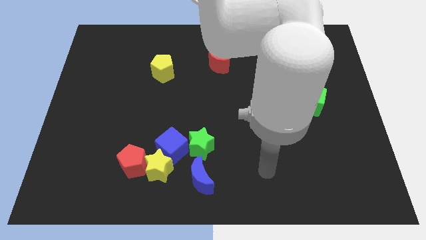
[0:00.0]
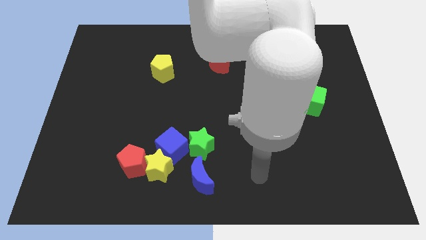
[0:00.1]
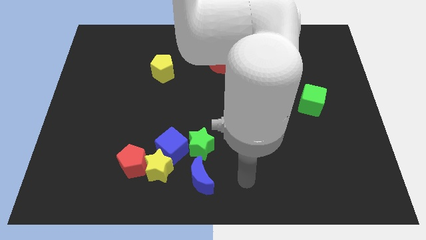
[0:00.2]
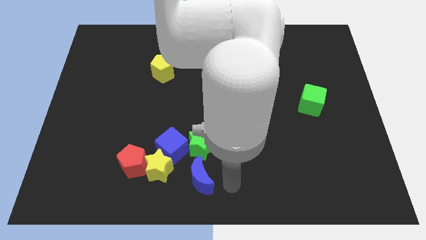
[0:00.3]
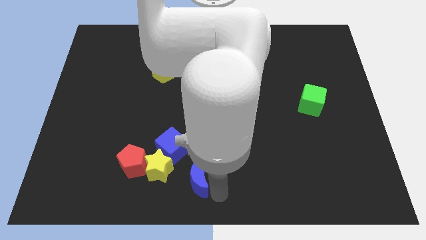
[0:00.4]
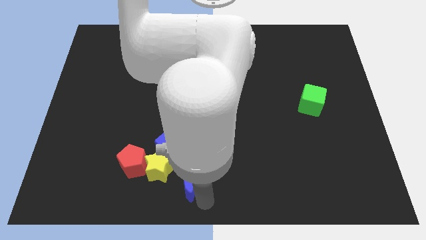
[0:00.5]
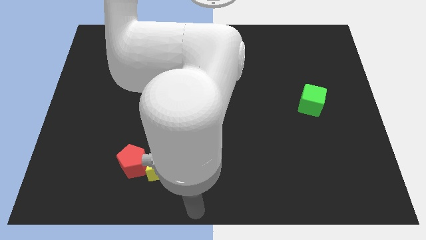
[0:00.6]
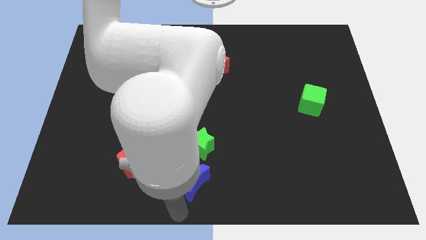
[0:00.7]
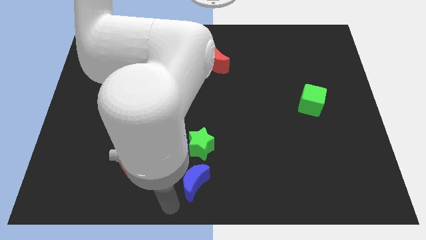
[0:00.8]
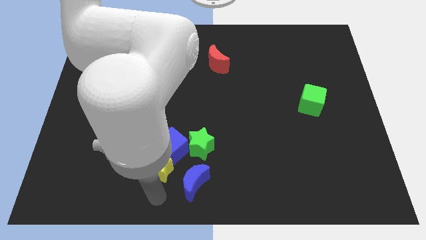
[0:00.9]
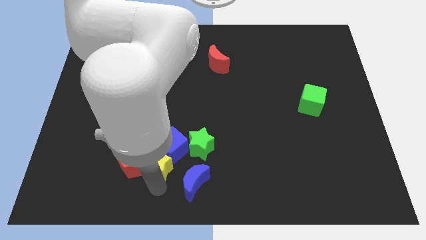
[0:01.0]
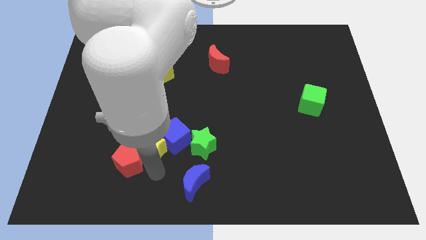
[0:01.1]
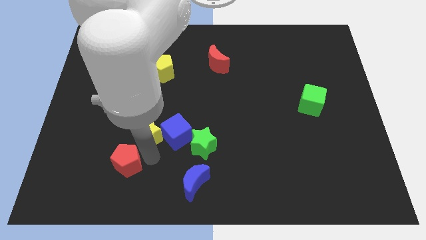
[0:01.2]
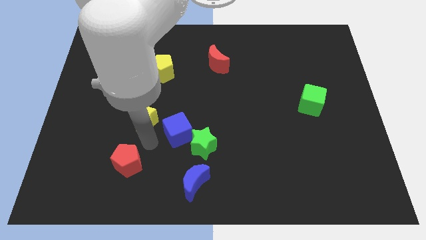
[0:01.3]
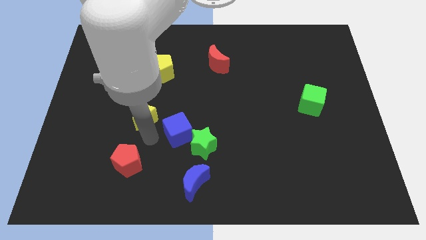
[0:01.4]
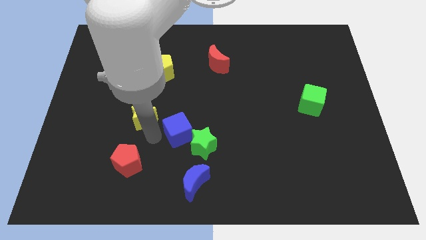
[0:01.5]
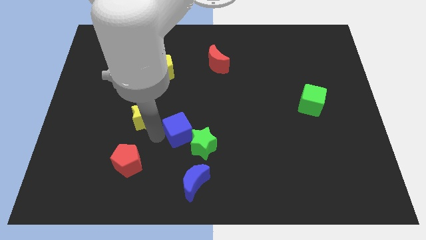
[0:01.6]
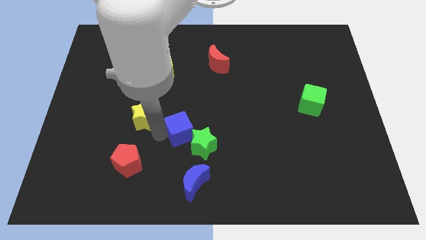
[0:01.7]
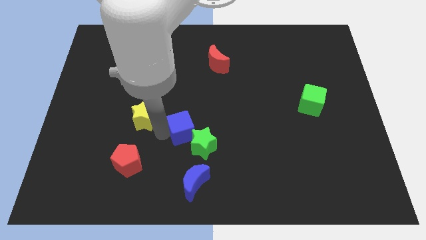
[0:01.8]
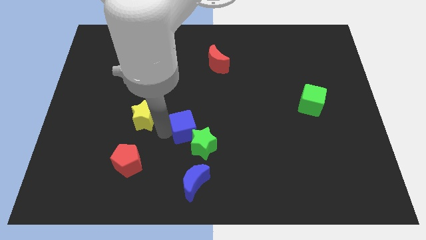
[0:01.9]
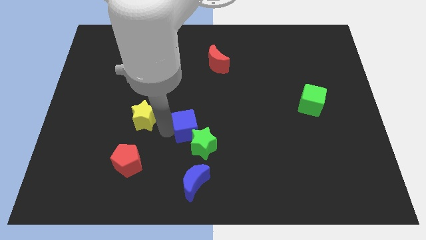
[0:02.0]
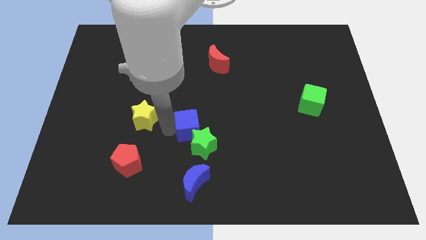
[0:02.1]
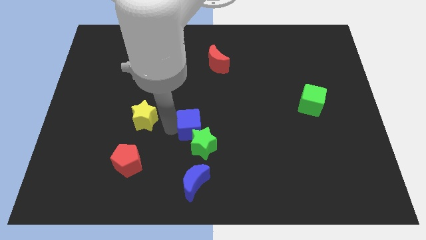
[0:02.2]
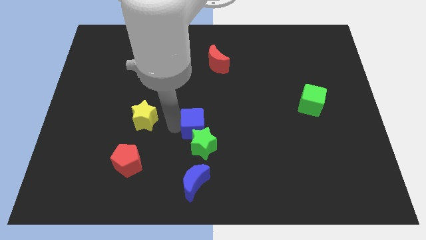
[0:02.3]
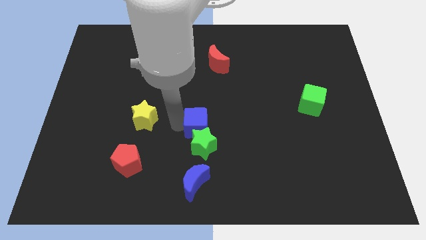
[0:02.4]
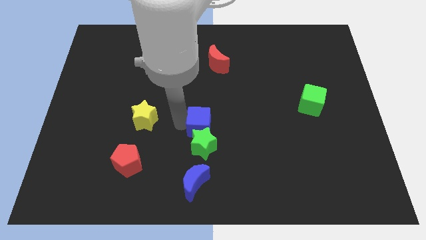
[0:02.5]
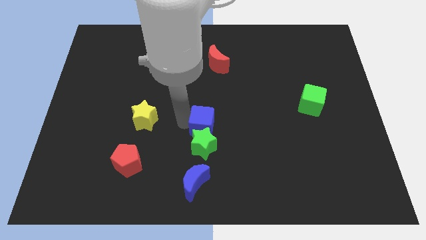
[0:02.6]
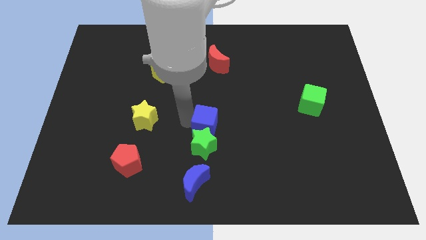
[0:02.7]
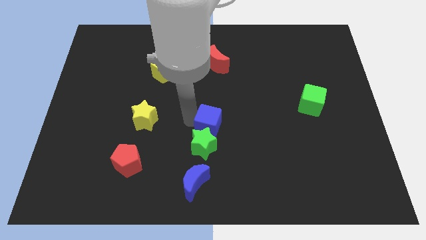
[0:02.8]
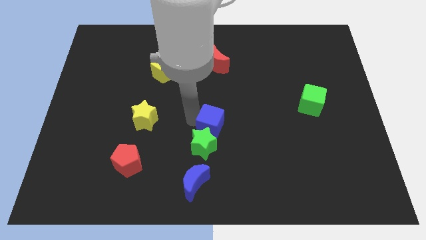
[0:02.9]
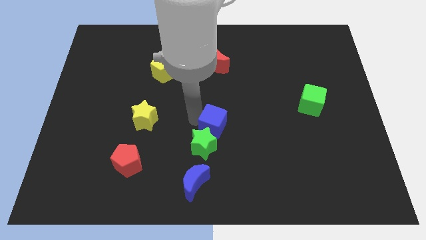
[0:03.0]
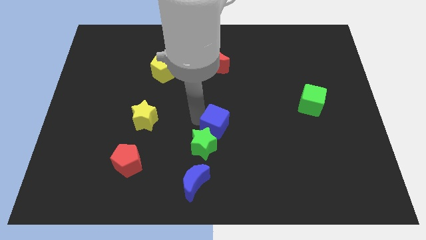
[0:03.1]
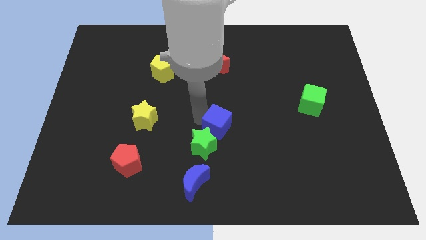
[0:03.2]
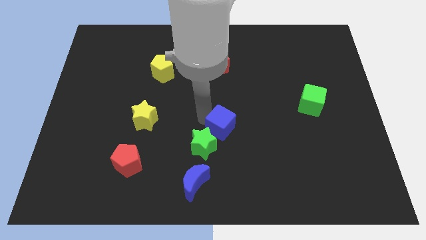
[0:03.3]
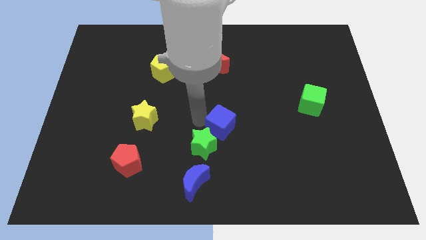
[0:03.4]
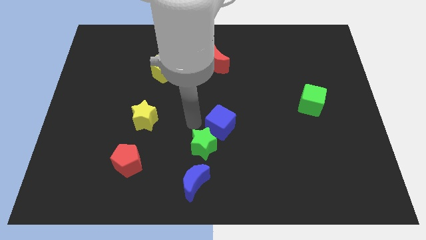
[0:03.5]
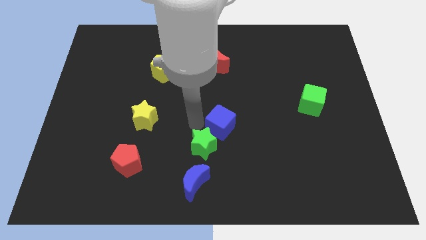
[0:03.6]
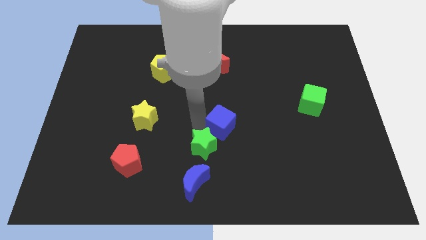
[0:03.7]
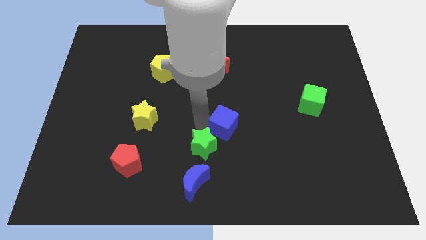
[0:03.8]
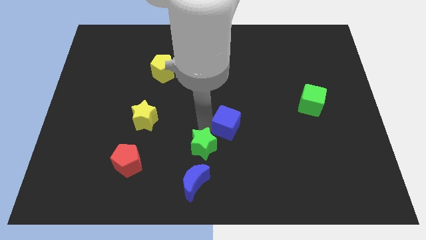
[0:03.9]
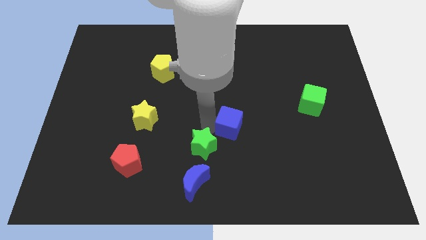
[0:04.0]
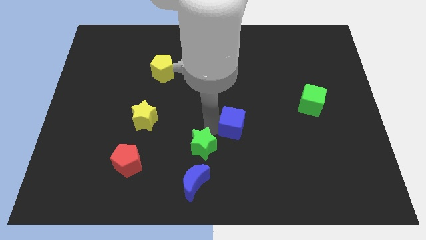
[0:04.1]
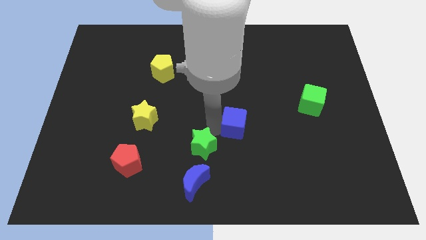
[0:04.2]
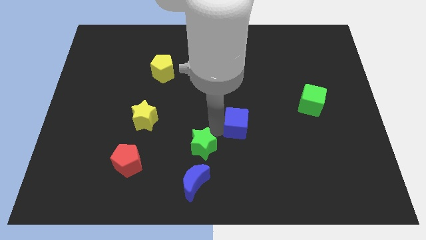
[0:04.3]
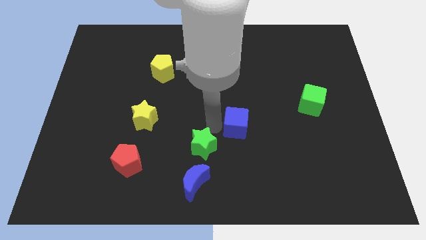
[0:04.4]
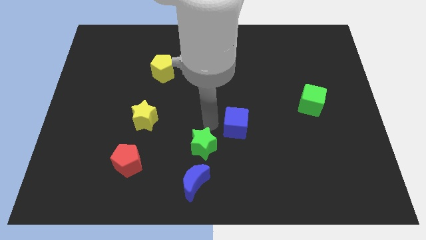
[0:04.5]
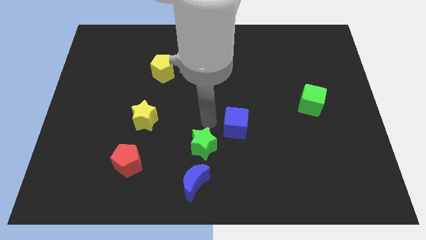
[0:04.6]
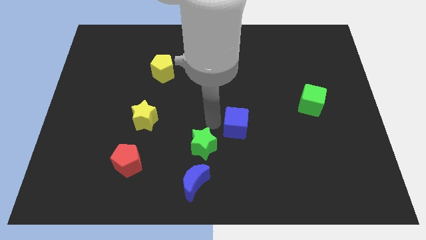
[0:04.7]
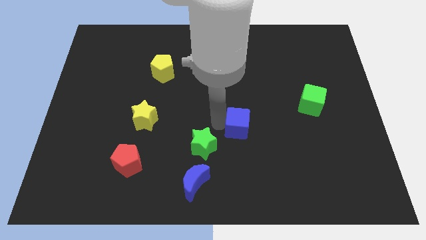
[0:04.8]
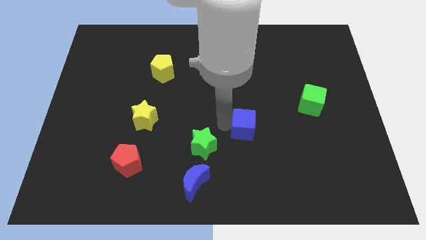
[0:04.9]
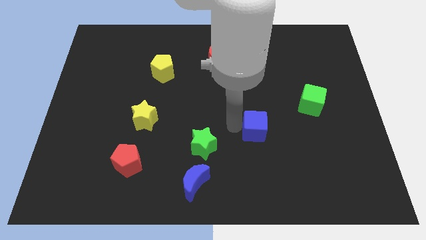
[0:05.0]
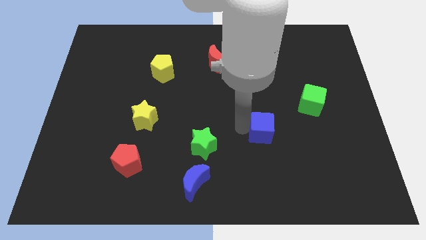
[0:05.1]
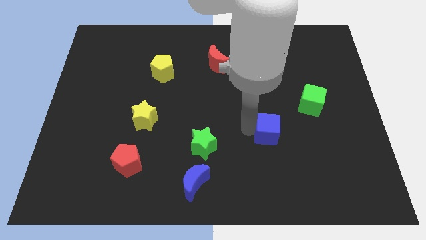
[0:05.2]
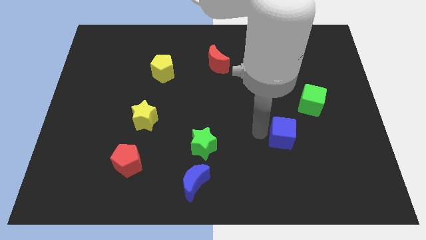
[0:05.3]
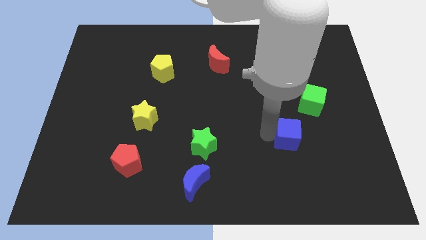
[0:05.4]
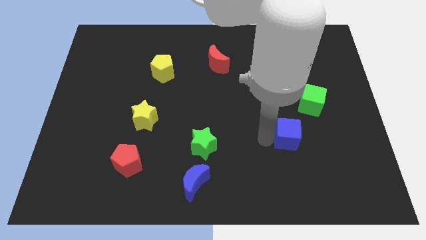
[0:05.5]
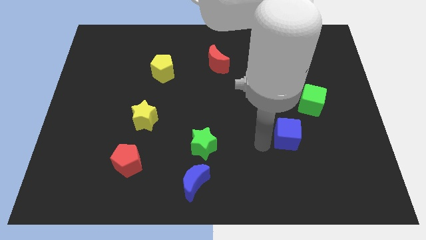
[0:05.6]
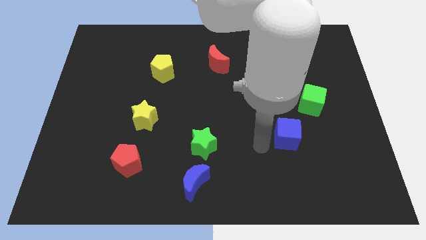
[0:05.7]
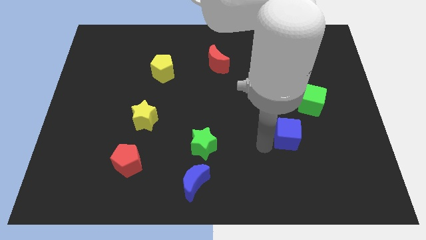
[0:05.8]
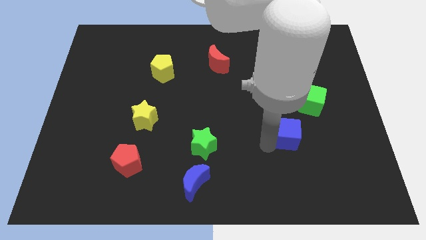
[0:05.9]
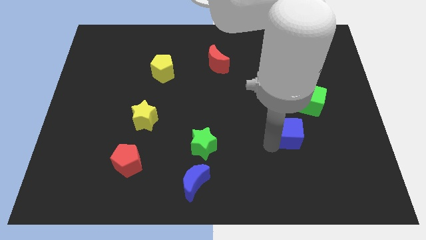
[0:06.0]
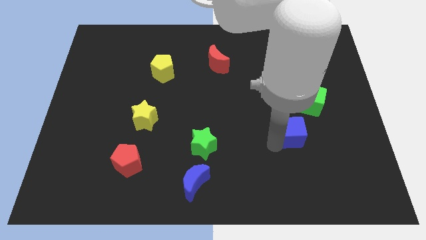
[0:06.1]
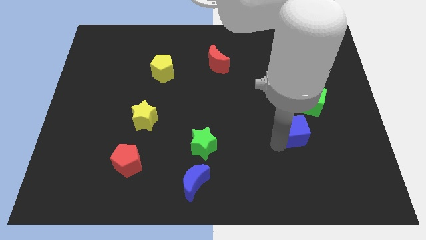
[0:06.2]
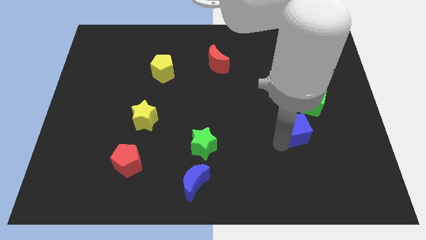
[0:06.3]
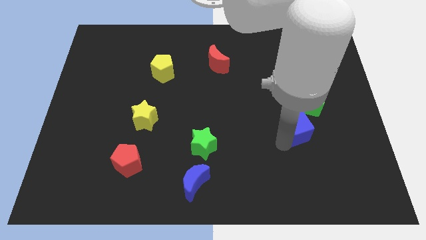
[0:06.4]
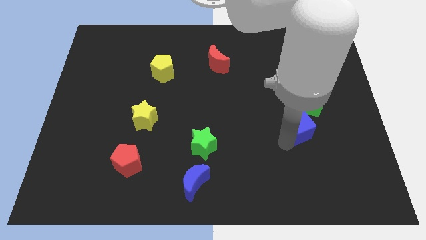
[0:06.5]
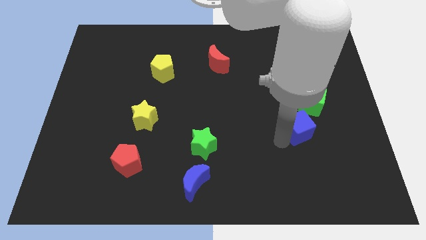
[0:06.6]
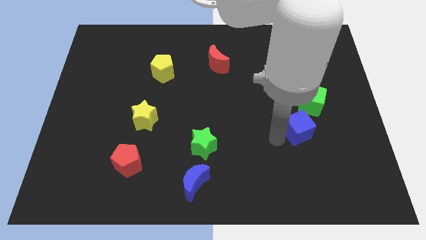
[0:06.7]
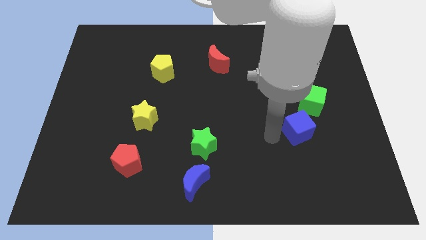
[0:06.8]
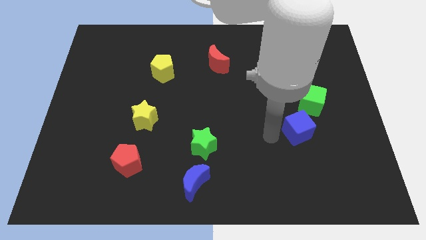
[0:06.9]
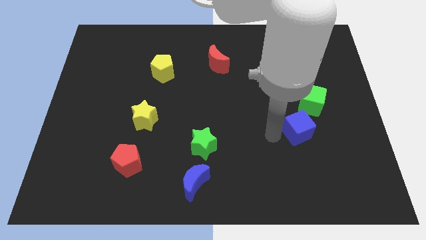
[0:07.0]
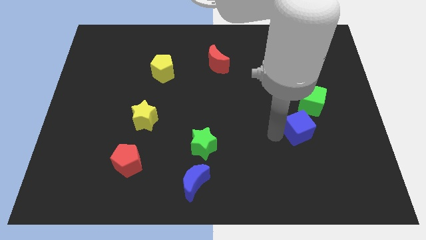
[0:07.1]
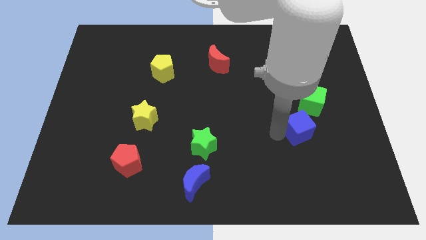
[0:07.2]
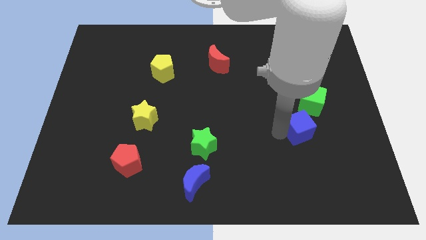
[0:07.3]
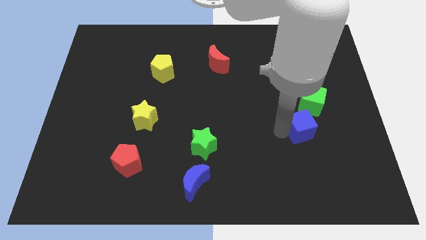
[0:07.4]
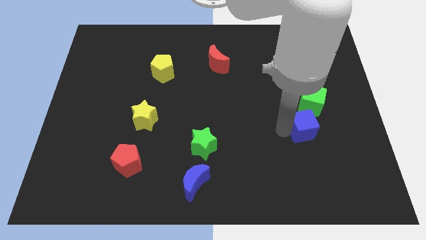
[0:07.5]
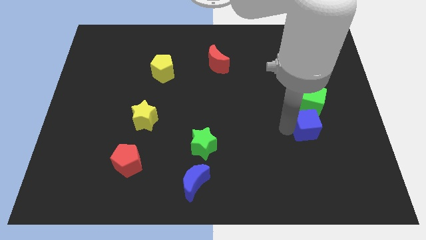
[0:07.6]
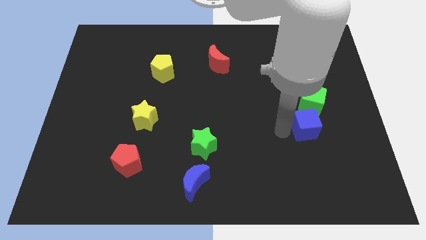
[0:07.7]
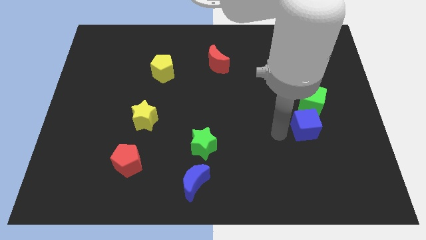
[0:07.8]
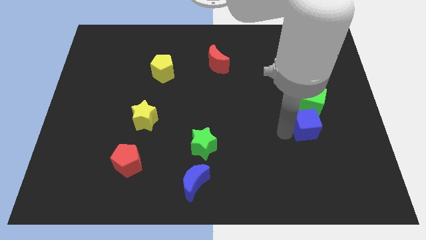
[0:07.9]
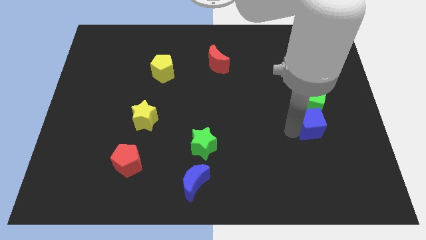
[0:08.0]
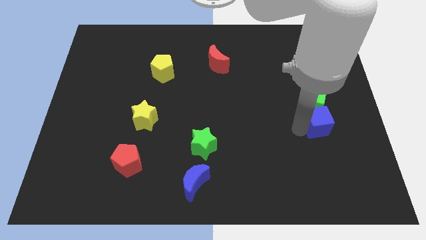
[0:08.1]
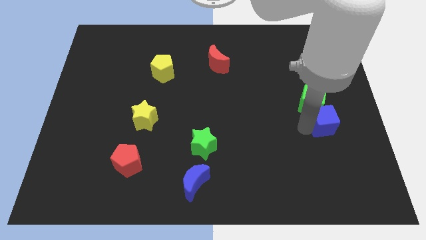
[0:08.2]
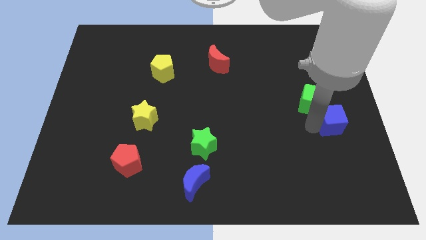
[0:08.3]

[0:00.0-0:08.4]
slide the blue cube to the right side
